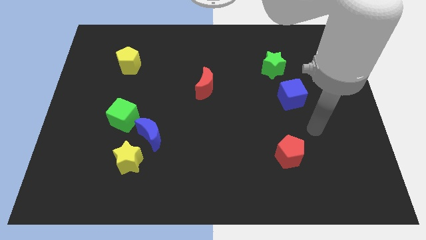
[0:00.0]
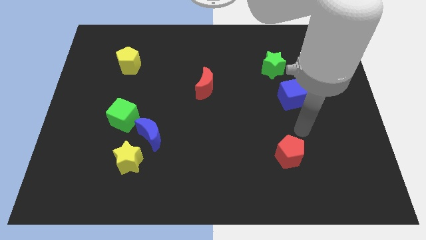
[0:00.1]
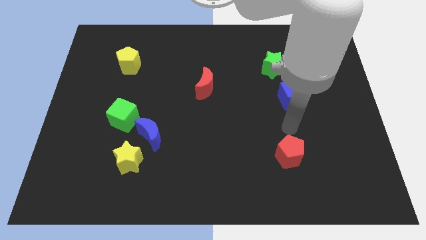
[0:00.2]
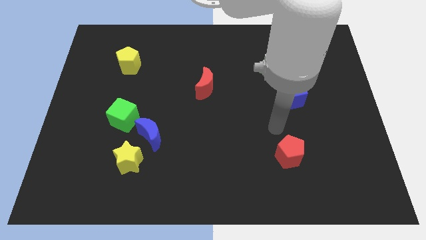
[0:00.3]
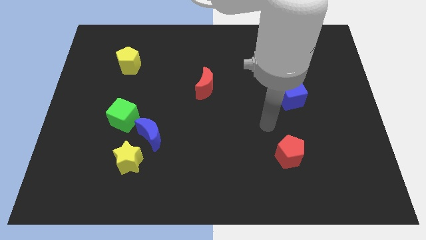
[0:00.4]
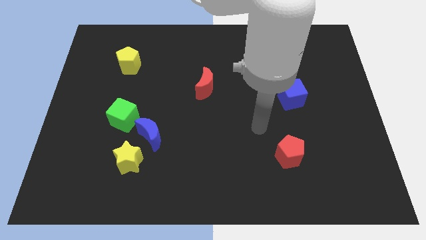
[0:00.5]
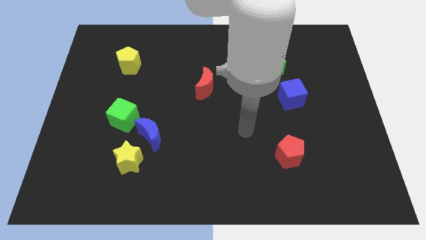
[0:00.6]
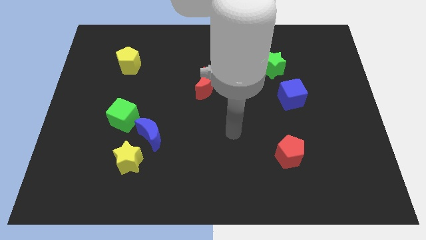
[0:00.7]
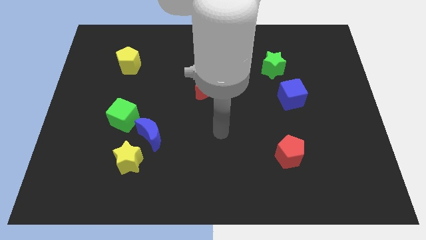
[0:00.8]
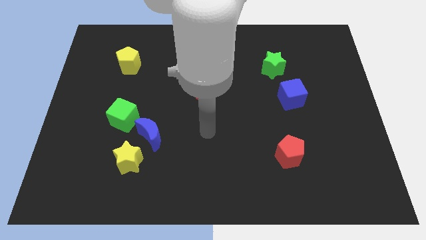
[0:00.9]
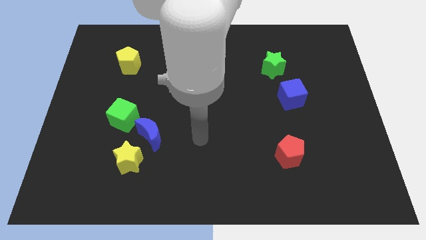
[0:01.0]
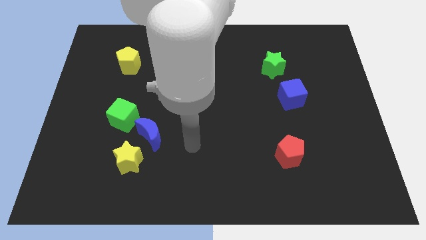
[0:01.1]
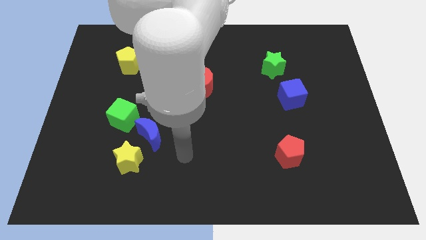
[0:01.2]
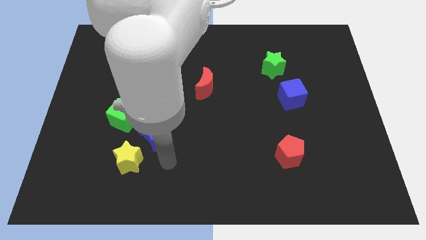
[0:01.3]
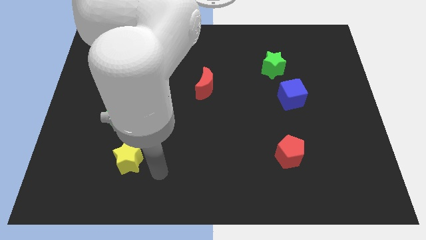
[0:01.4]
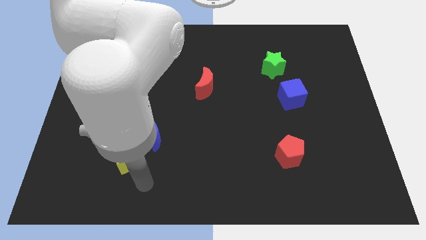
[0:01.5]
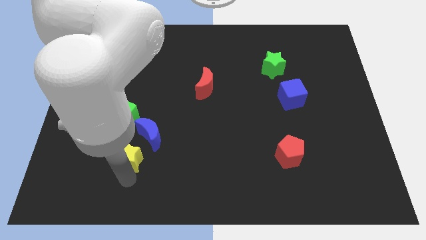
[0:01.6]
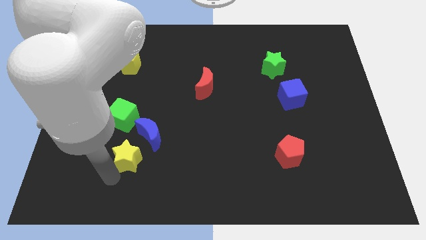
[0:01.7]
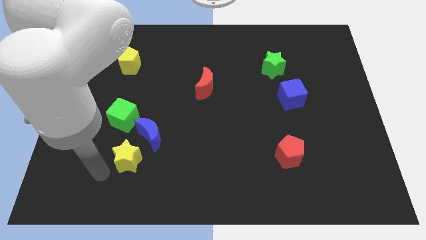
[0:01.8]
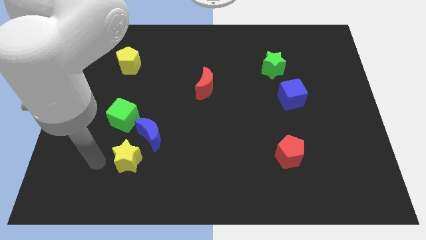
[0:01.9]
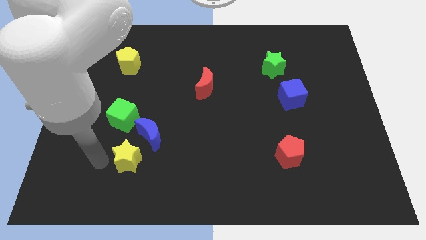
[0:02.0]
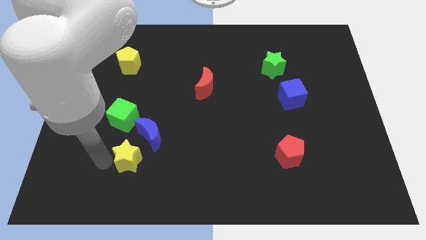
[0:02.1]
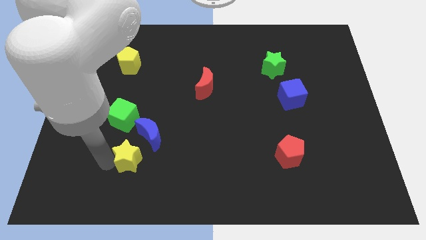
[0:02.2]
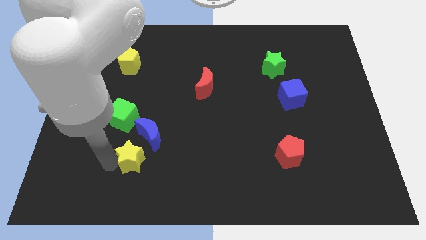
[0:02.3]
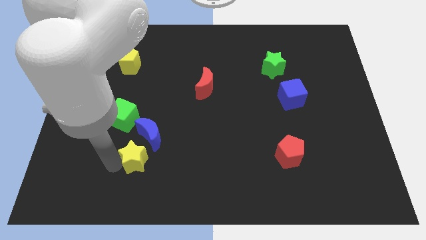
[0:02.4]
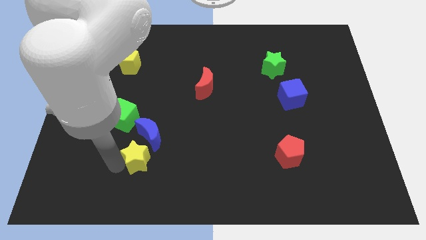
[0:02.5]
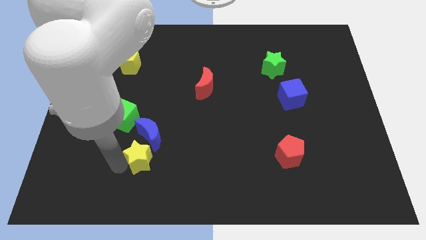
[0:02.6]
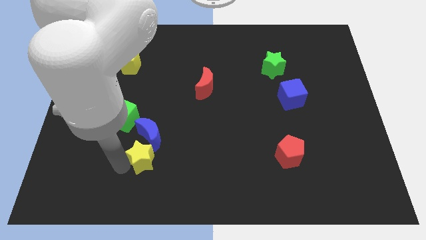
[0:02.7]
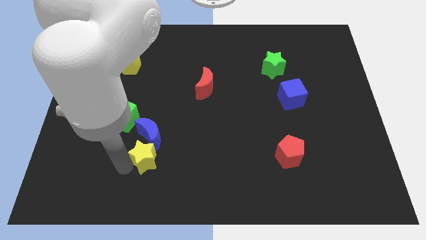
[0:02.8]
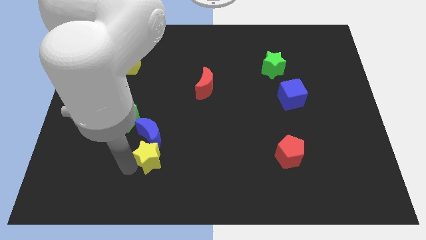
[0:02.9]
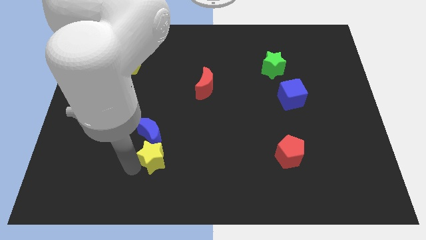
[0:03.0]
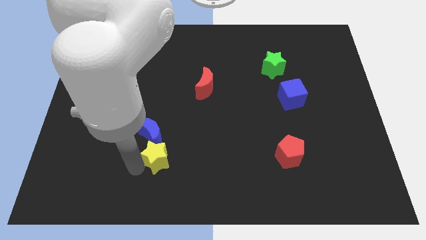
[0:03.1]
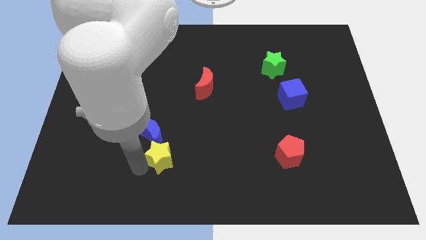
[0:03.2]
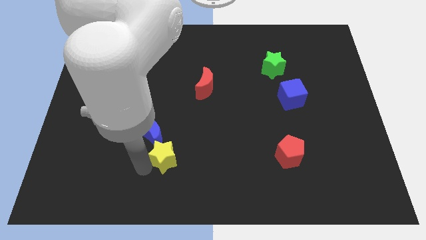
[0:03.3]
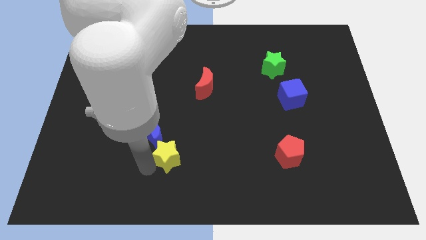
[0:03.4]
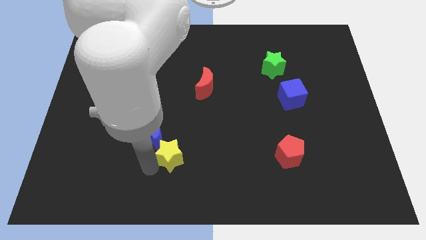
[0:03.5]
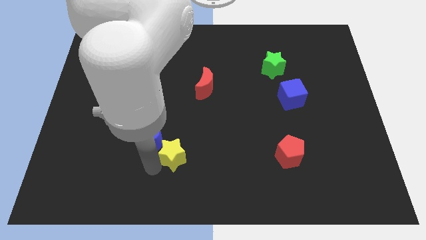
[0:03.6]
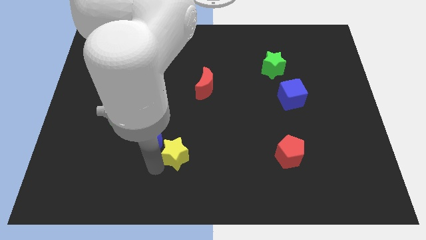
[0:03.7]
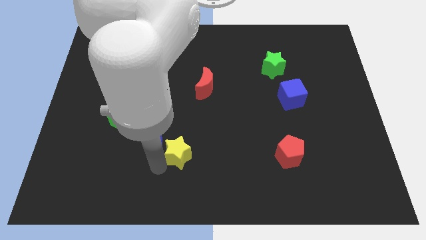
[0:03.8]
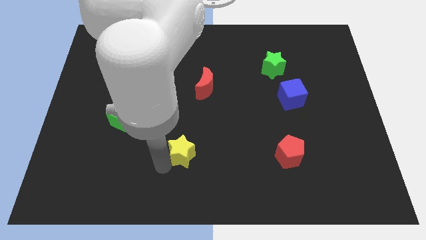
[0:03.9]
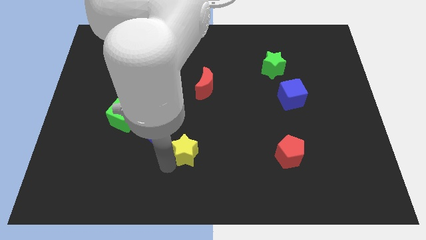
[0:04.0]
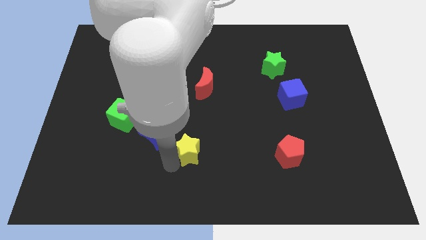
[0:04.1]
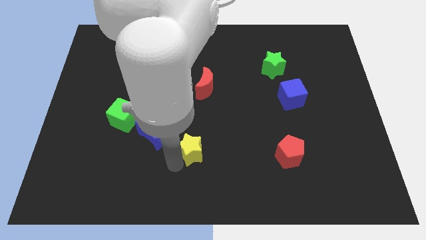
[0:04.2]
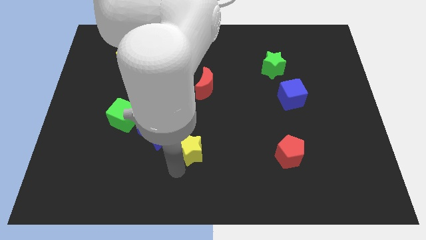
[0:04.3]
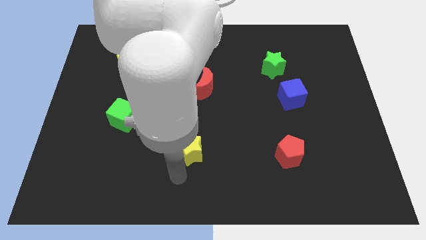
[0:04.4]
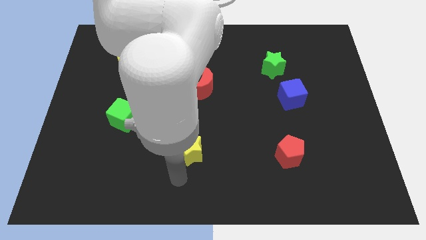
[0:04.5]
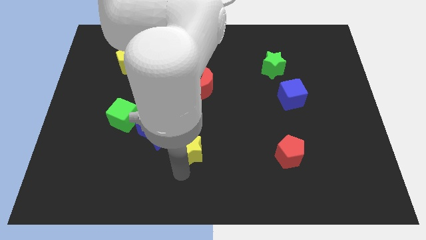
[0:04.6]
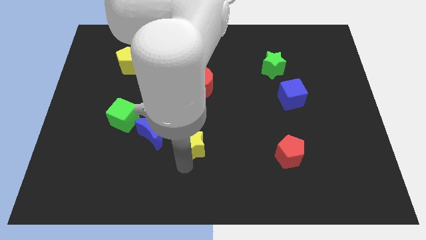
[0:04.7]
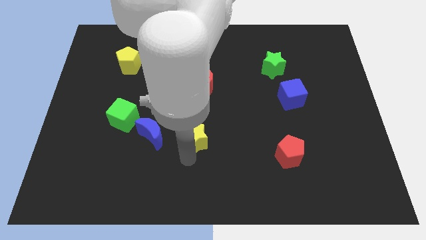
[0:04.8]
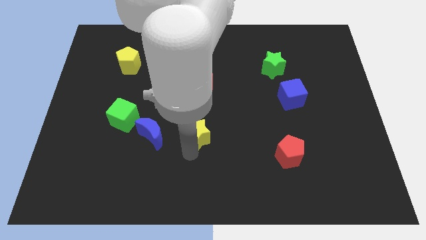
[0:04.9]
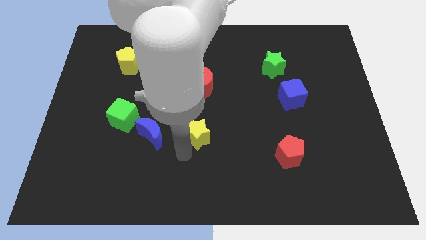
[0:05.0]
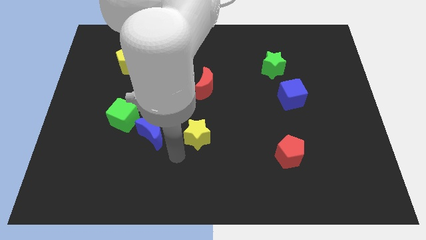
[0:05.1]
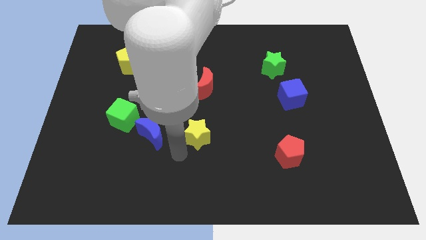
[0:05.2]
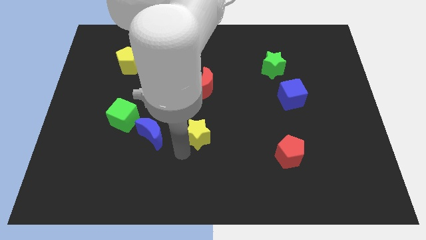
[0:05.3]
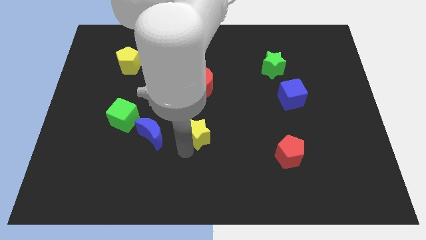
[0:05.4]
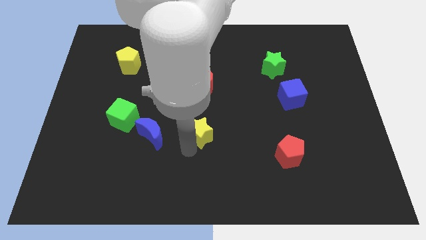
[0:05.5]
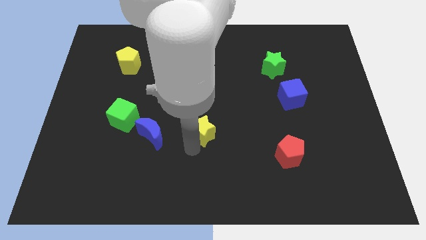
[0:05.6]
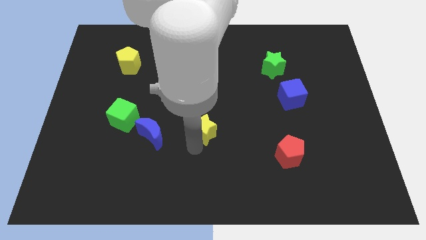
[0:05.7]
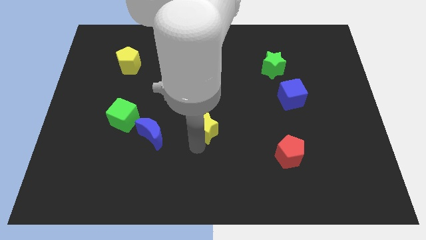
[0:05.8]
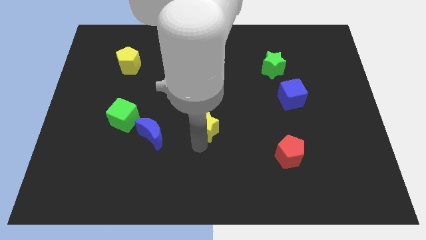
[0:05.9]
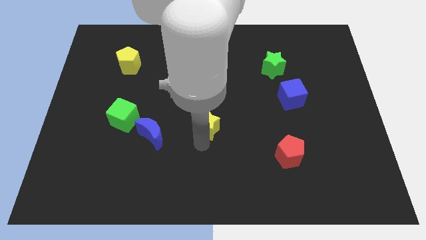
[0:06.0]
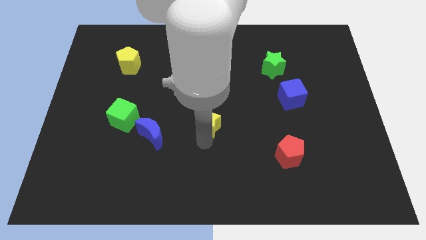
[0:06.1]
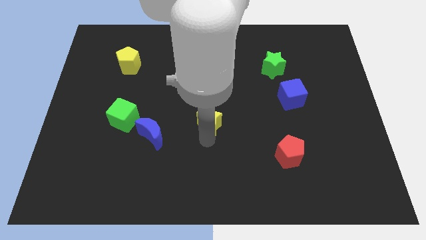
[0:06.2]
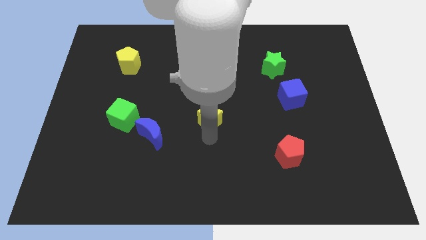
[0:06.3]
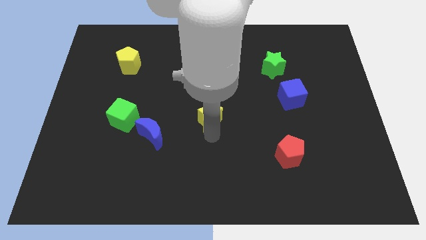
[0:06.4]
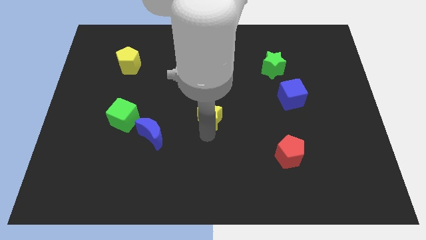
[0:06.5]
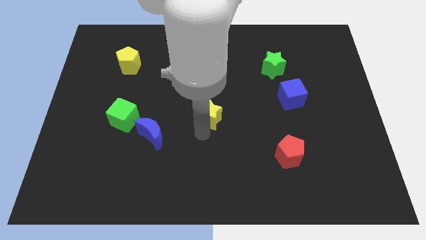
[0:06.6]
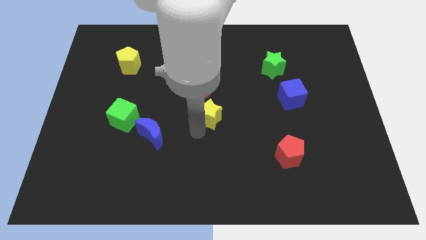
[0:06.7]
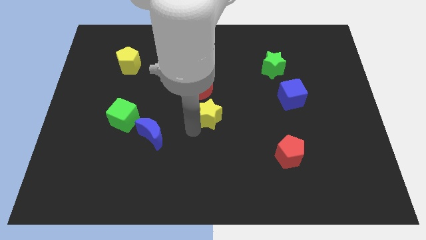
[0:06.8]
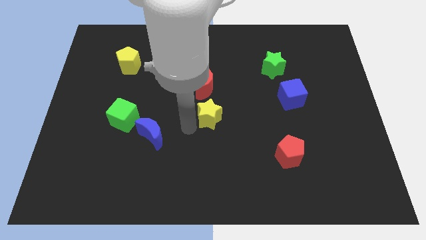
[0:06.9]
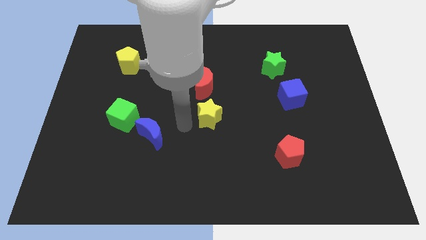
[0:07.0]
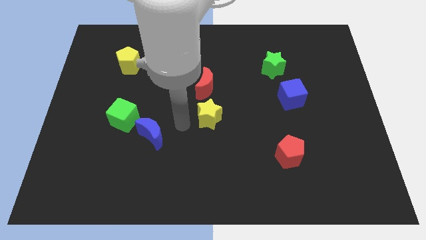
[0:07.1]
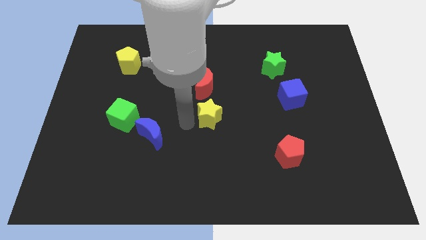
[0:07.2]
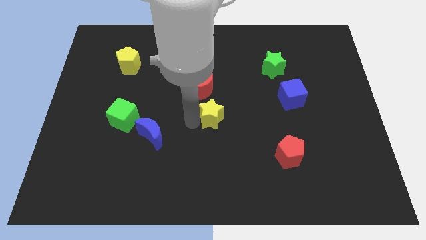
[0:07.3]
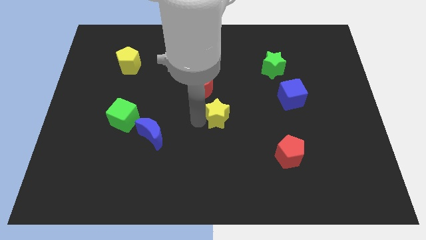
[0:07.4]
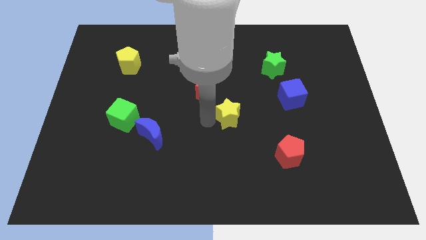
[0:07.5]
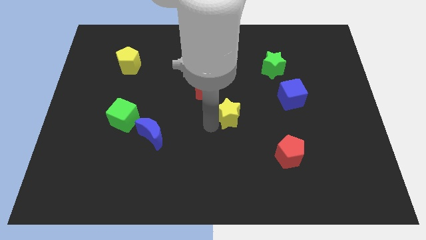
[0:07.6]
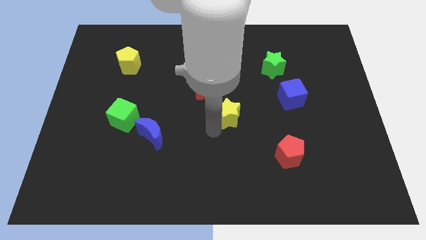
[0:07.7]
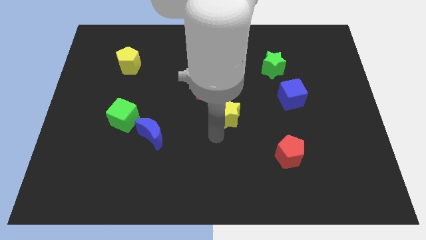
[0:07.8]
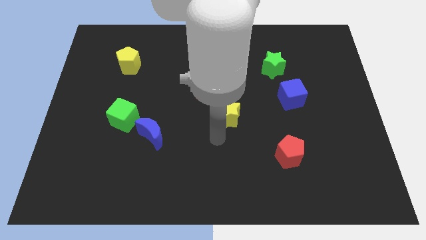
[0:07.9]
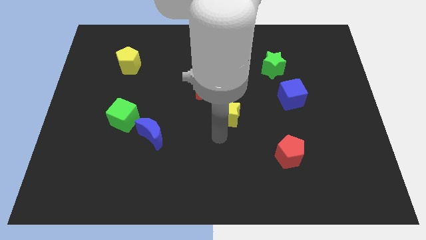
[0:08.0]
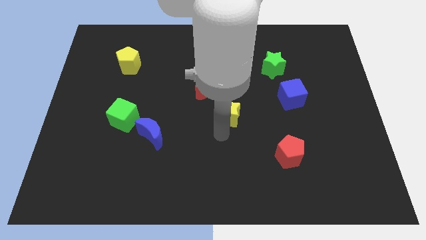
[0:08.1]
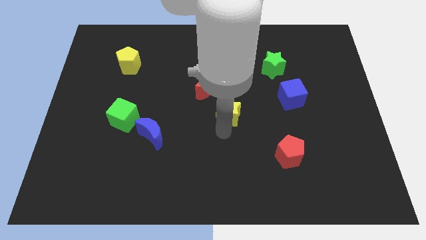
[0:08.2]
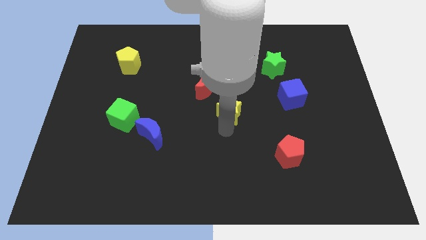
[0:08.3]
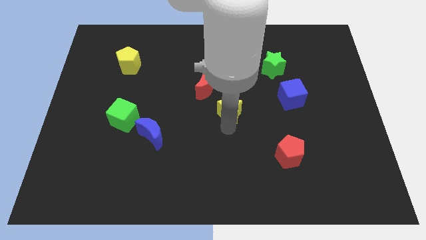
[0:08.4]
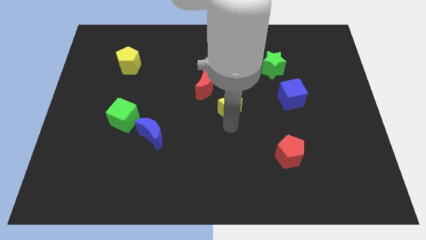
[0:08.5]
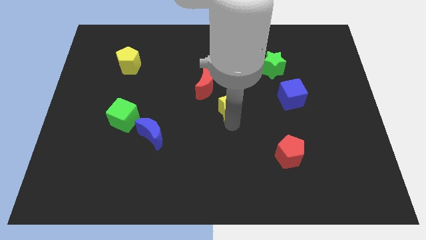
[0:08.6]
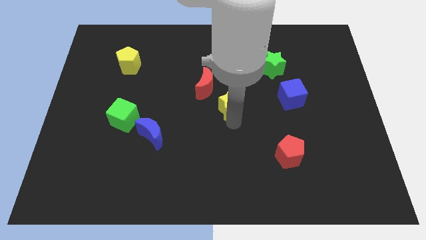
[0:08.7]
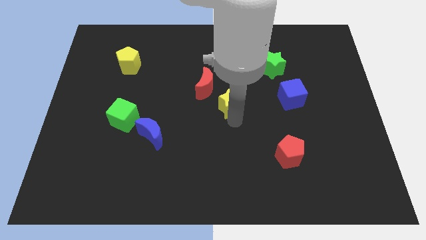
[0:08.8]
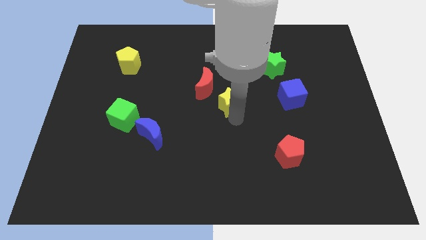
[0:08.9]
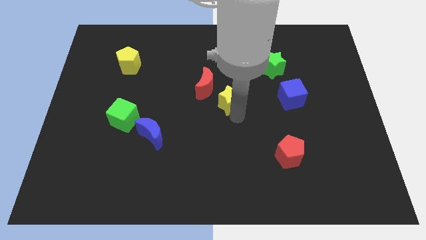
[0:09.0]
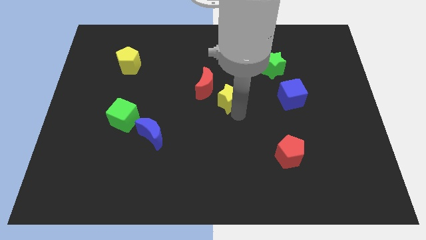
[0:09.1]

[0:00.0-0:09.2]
move the yellow star to the right side of the red moon
